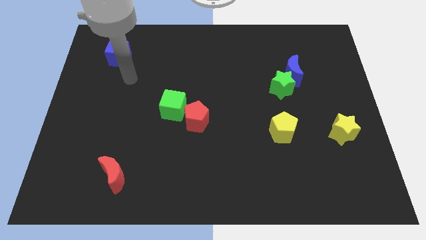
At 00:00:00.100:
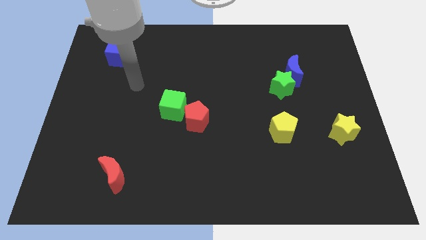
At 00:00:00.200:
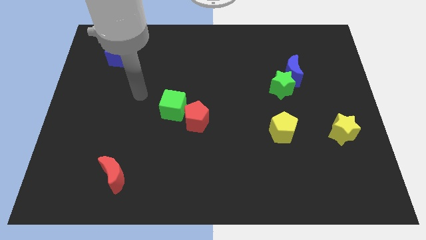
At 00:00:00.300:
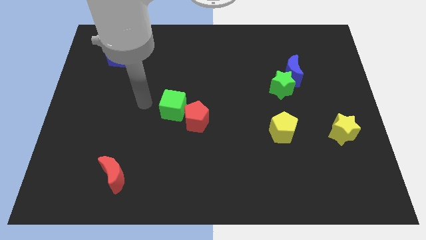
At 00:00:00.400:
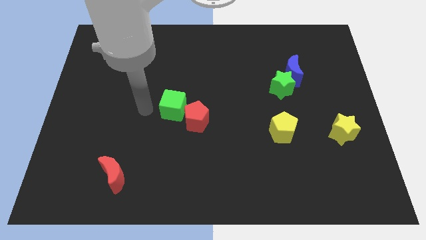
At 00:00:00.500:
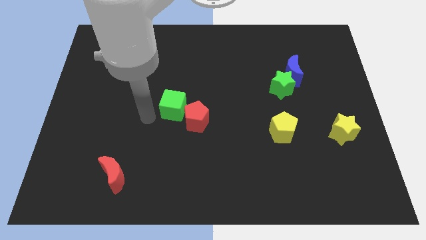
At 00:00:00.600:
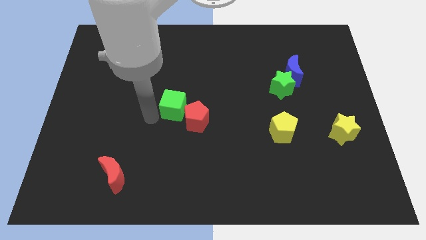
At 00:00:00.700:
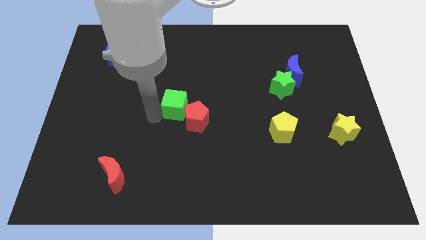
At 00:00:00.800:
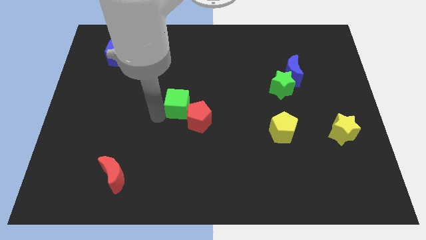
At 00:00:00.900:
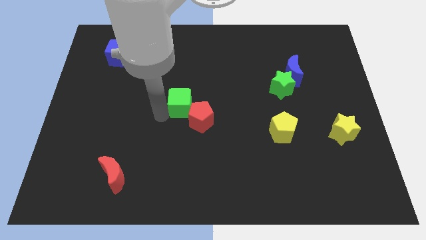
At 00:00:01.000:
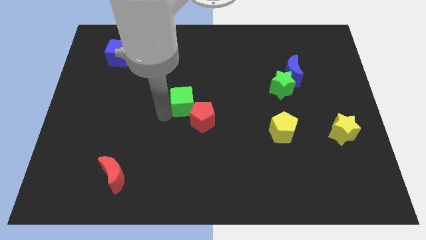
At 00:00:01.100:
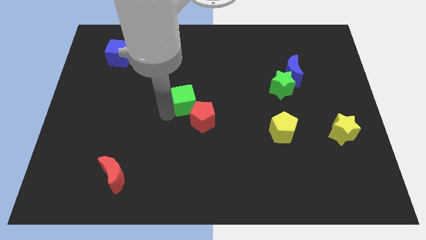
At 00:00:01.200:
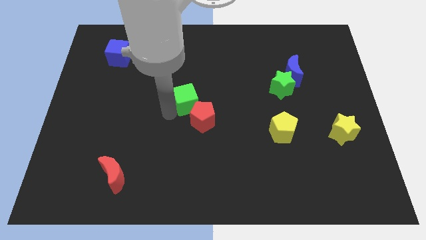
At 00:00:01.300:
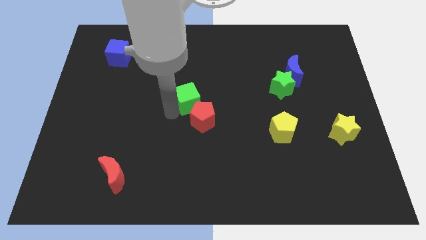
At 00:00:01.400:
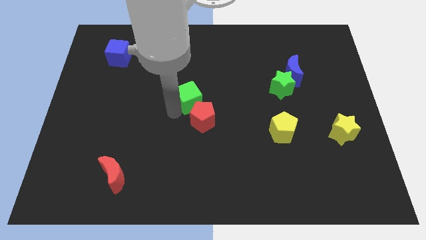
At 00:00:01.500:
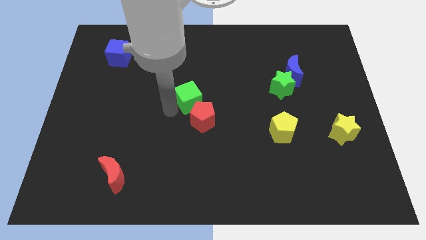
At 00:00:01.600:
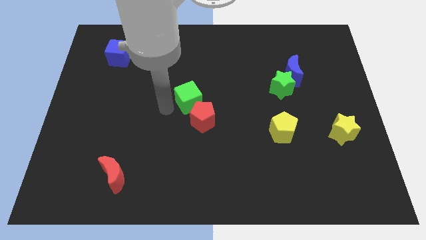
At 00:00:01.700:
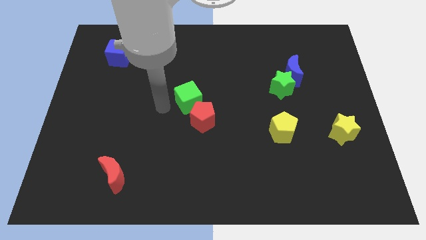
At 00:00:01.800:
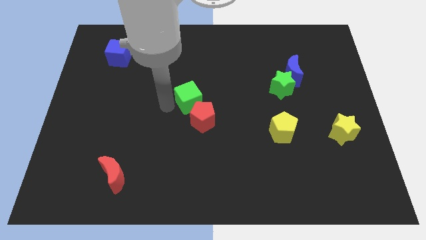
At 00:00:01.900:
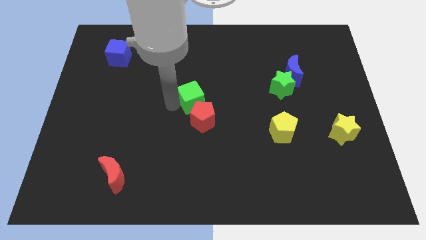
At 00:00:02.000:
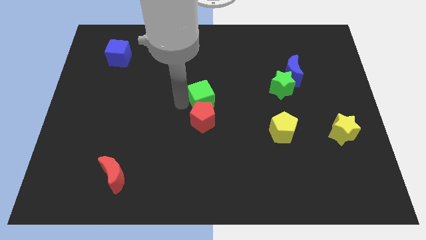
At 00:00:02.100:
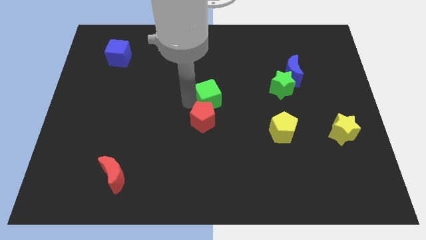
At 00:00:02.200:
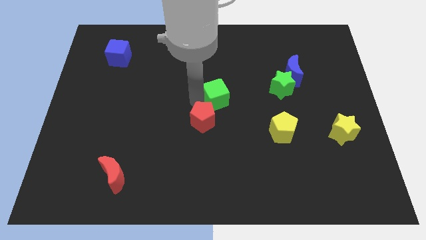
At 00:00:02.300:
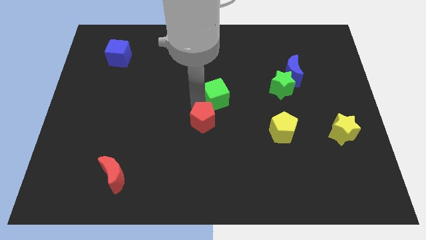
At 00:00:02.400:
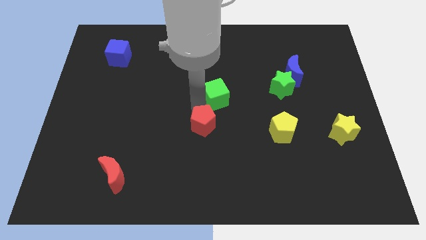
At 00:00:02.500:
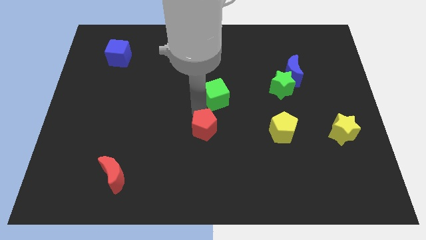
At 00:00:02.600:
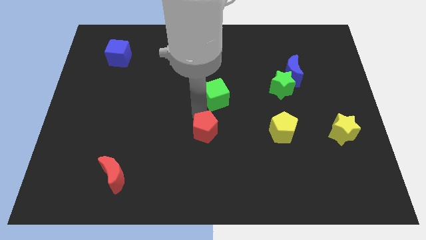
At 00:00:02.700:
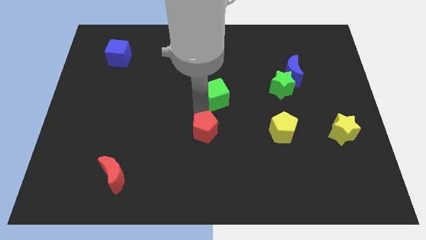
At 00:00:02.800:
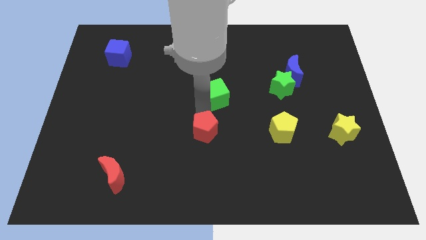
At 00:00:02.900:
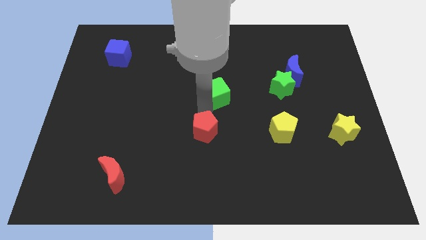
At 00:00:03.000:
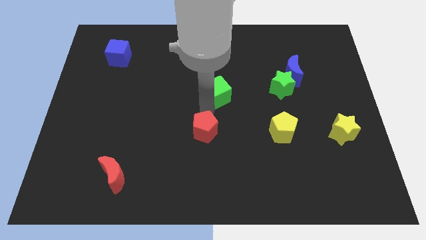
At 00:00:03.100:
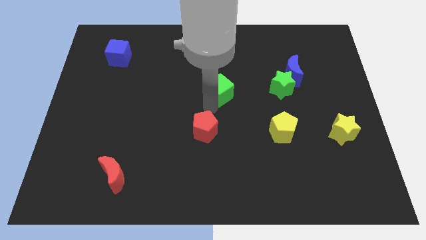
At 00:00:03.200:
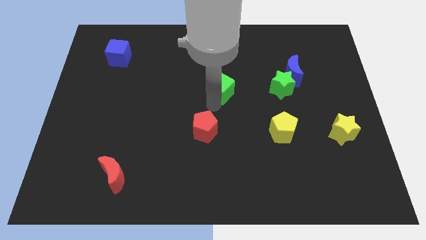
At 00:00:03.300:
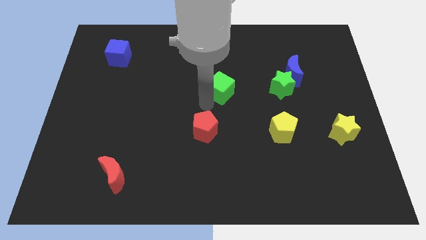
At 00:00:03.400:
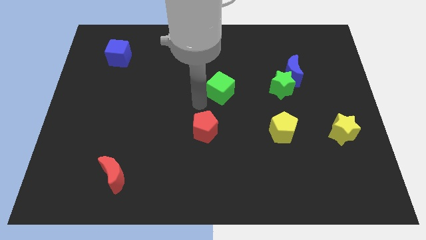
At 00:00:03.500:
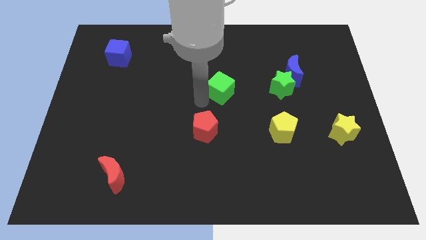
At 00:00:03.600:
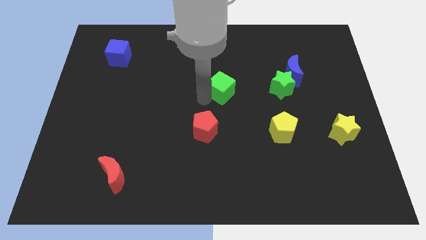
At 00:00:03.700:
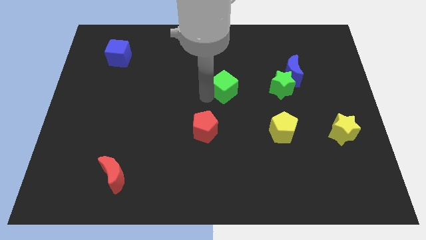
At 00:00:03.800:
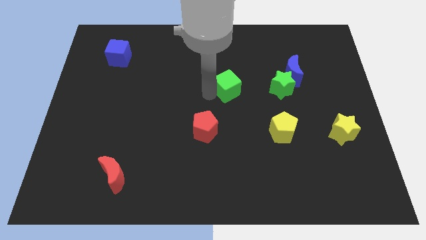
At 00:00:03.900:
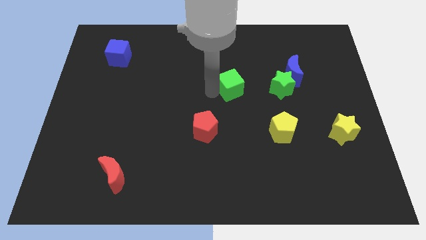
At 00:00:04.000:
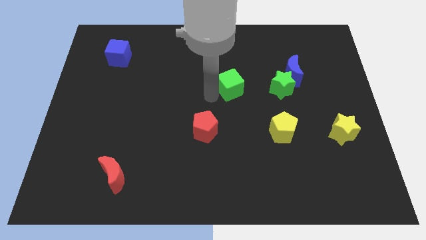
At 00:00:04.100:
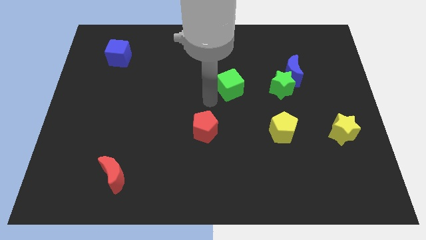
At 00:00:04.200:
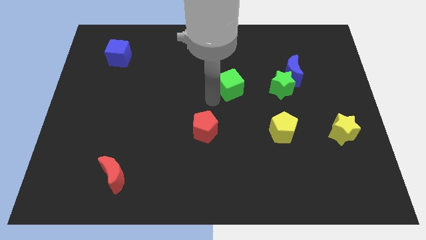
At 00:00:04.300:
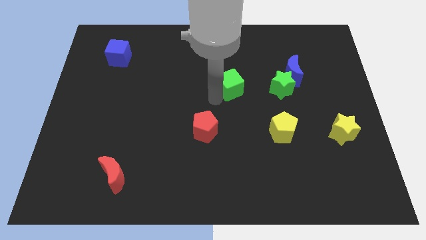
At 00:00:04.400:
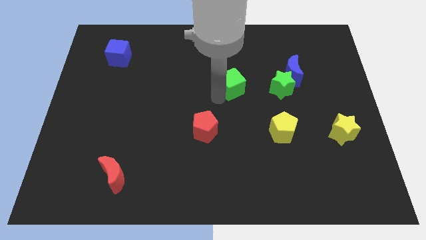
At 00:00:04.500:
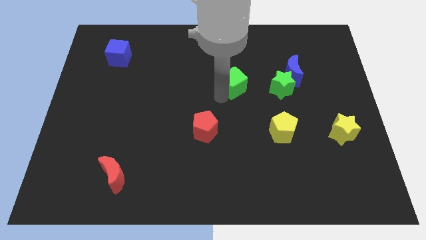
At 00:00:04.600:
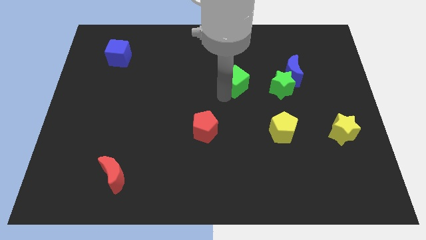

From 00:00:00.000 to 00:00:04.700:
slide the green cube to the left of the blue moon

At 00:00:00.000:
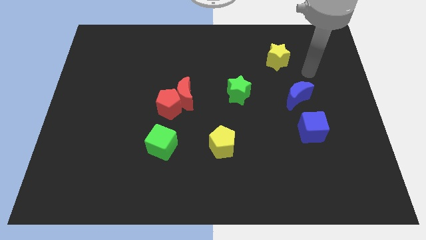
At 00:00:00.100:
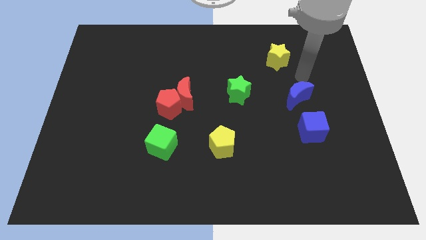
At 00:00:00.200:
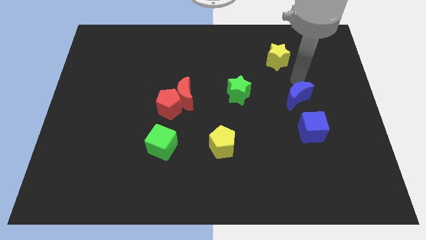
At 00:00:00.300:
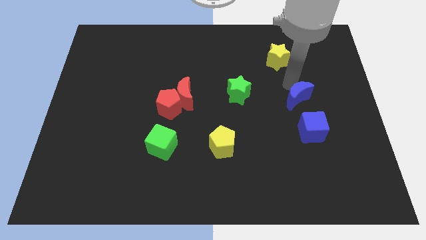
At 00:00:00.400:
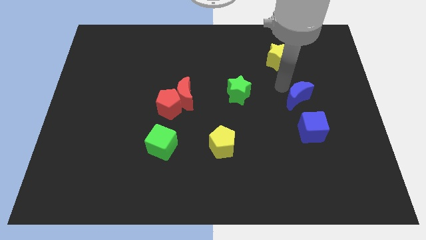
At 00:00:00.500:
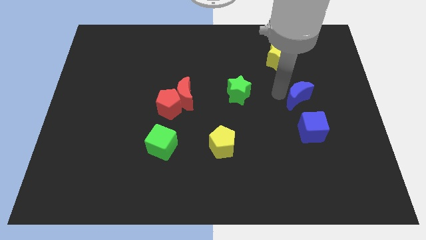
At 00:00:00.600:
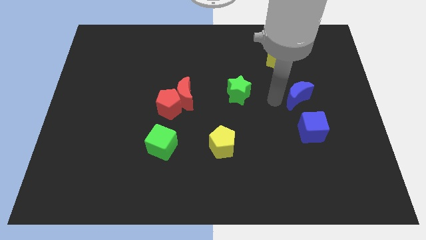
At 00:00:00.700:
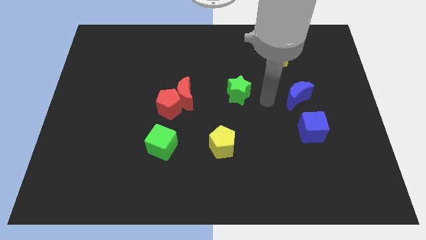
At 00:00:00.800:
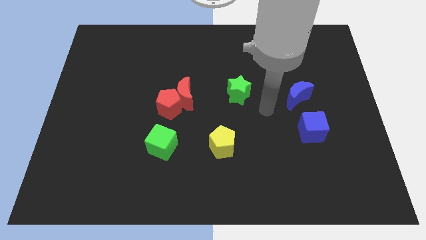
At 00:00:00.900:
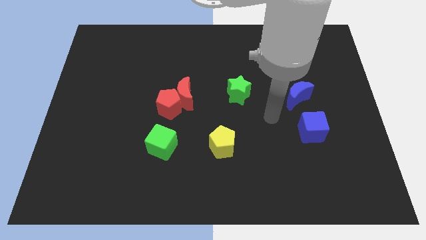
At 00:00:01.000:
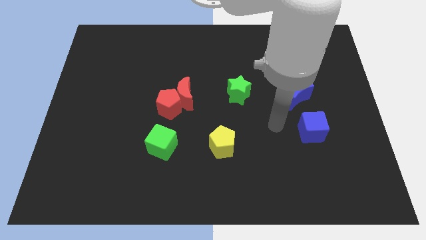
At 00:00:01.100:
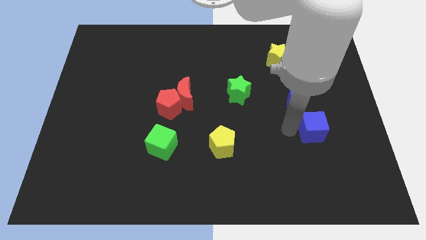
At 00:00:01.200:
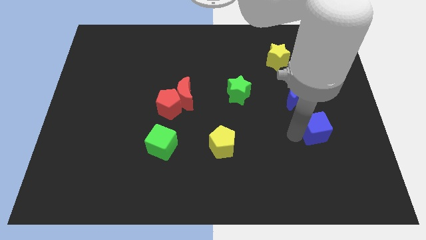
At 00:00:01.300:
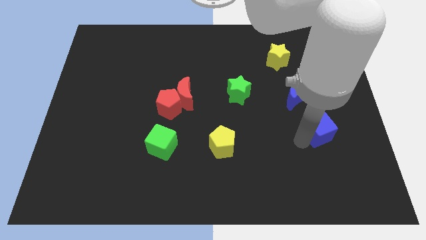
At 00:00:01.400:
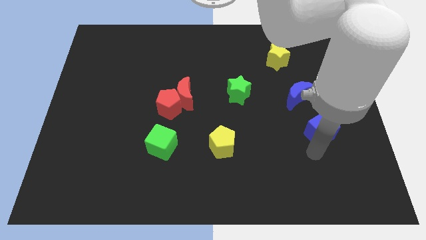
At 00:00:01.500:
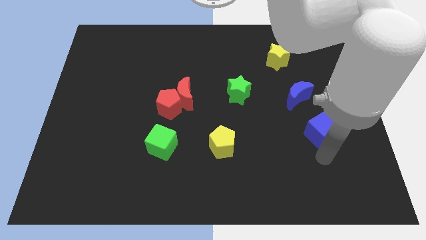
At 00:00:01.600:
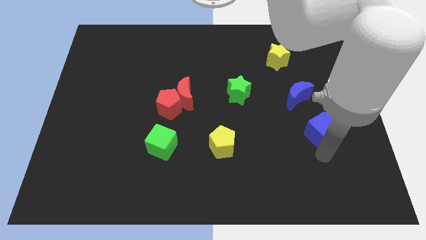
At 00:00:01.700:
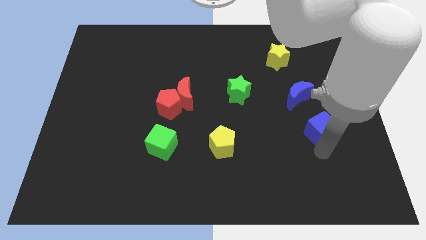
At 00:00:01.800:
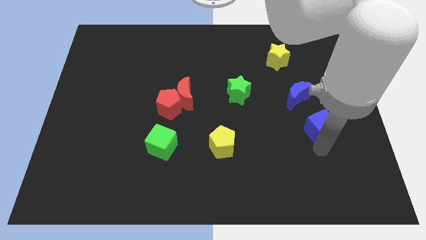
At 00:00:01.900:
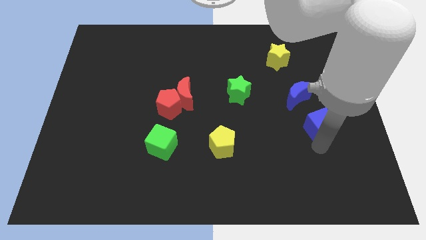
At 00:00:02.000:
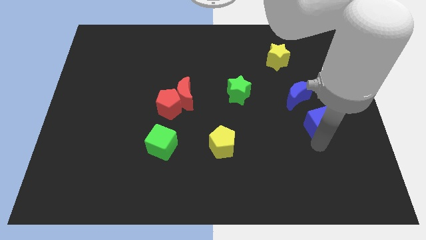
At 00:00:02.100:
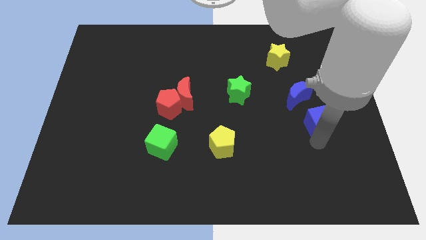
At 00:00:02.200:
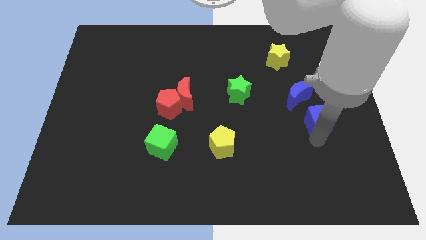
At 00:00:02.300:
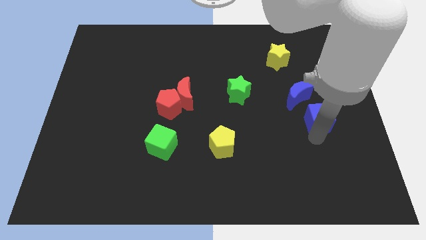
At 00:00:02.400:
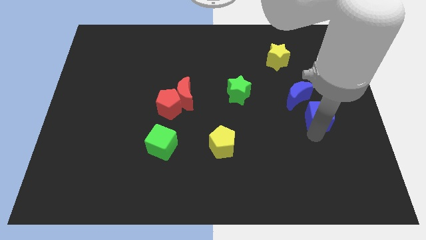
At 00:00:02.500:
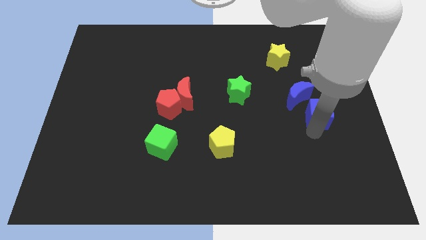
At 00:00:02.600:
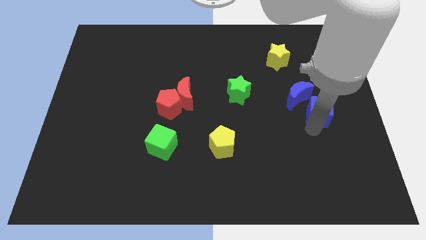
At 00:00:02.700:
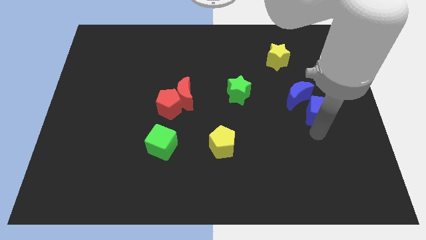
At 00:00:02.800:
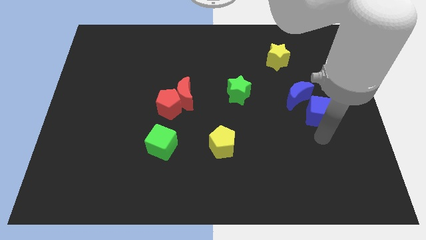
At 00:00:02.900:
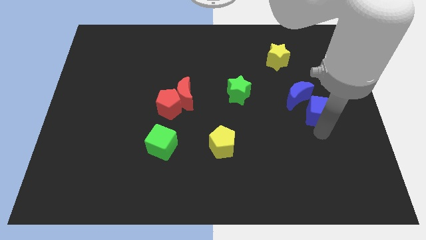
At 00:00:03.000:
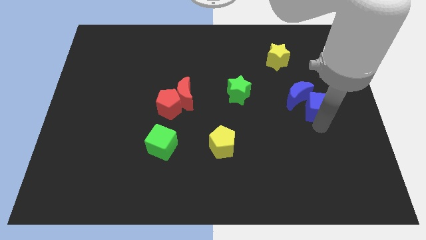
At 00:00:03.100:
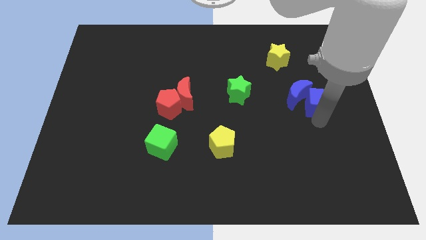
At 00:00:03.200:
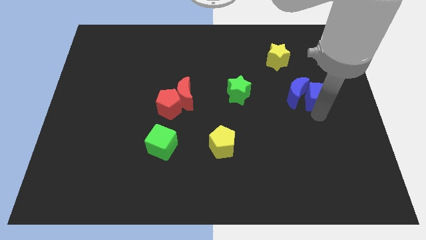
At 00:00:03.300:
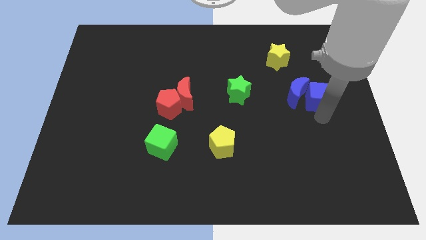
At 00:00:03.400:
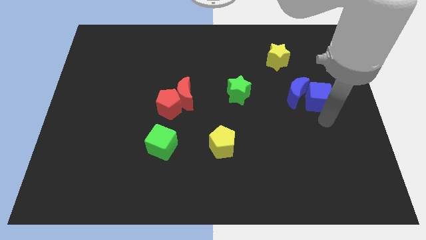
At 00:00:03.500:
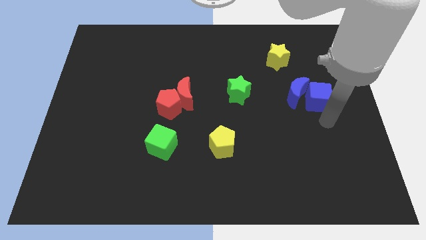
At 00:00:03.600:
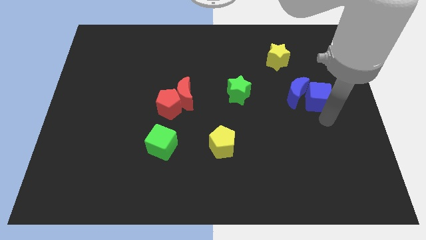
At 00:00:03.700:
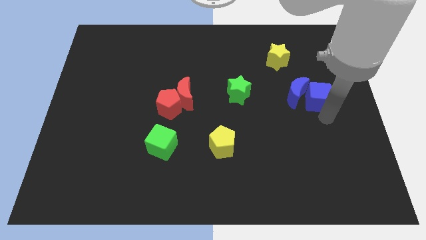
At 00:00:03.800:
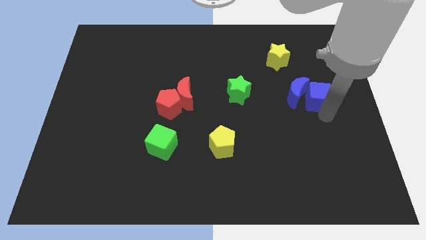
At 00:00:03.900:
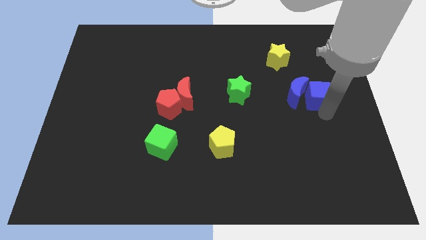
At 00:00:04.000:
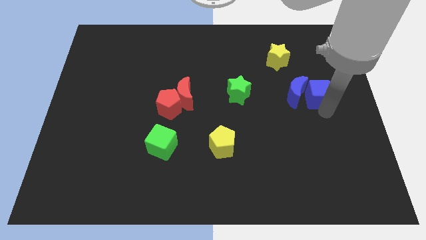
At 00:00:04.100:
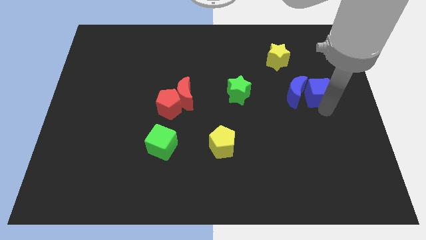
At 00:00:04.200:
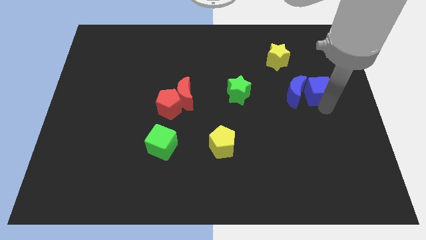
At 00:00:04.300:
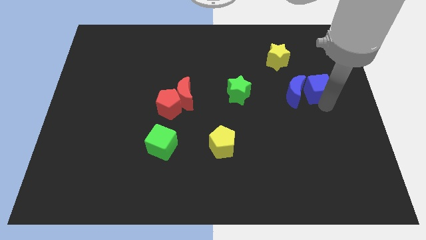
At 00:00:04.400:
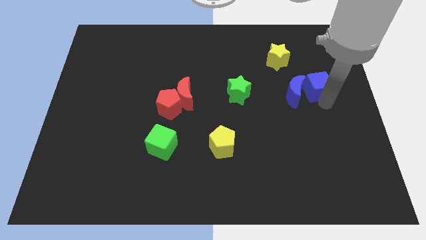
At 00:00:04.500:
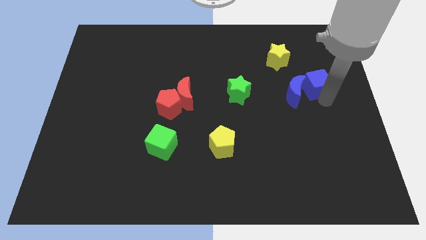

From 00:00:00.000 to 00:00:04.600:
move the blue cube diagonally down and to the right of the yellow star
